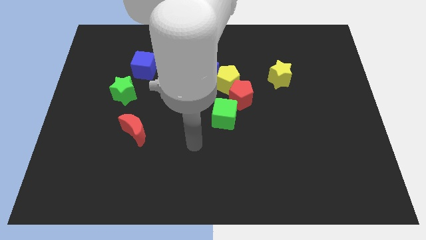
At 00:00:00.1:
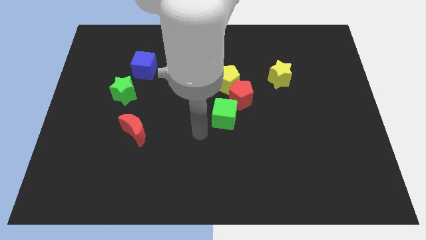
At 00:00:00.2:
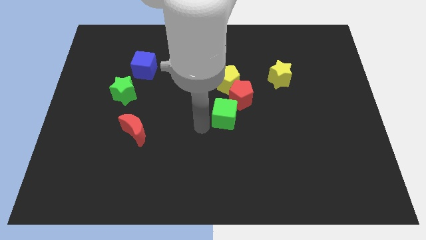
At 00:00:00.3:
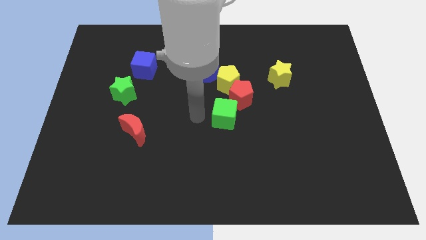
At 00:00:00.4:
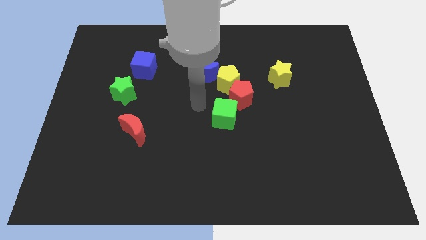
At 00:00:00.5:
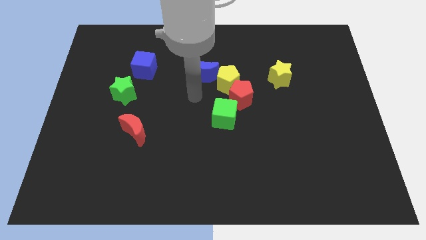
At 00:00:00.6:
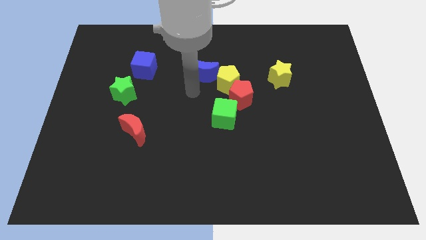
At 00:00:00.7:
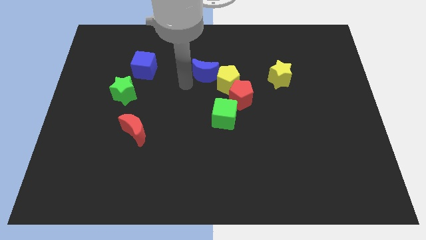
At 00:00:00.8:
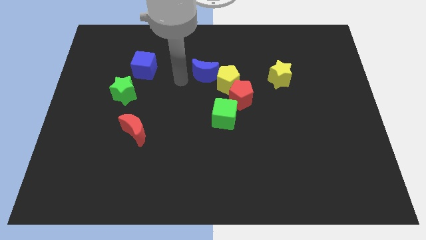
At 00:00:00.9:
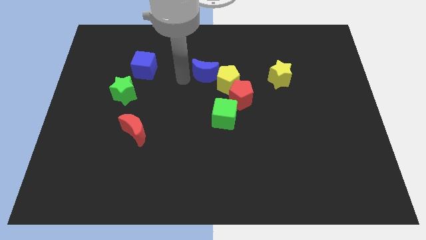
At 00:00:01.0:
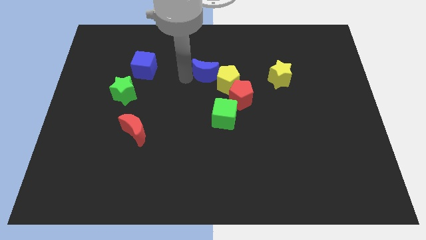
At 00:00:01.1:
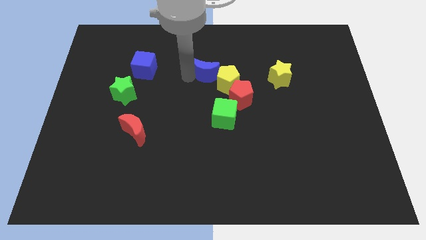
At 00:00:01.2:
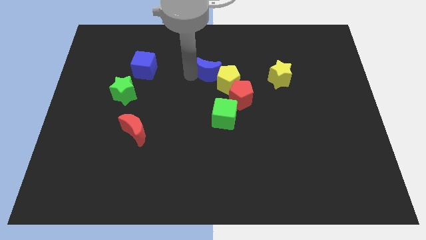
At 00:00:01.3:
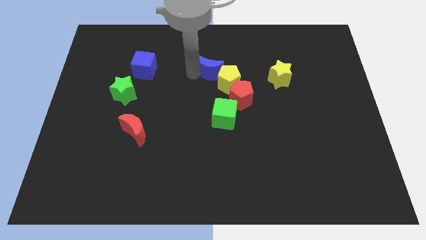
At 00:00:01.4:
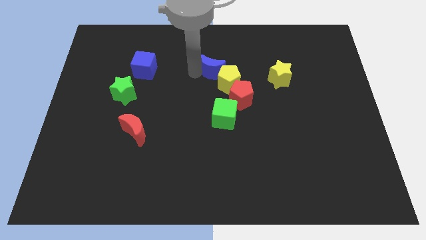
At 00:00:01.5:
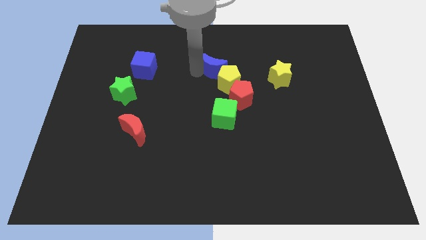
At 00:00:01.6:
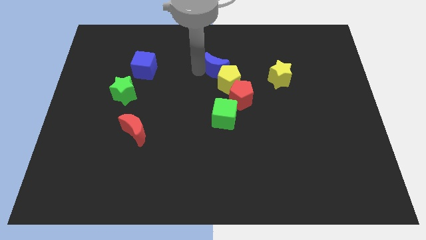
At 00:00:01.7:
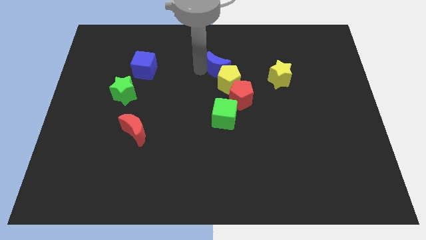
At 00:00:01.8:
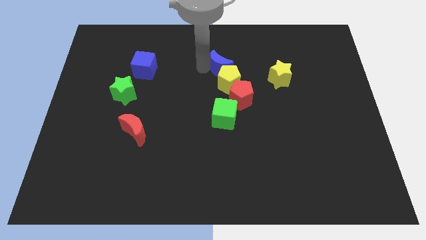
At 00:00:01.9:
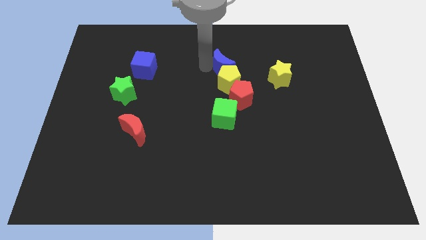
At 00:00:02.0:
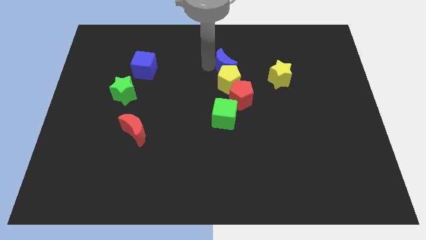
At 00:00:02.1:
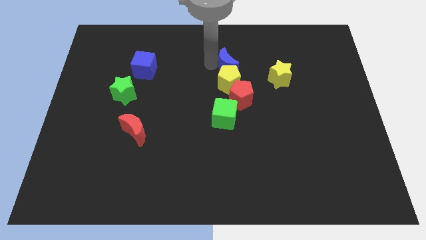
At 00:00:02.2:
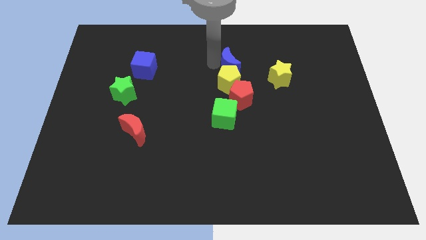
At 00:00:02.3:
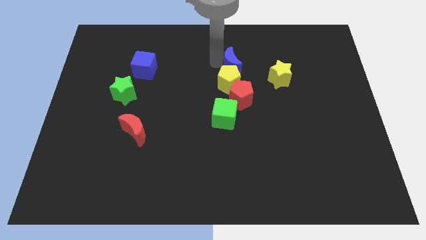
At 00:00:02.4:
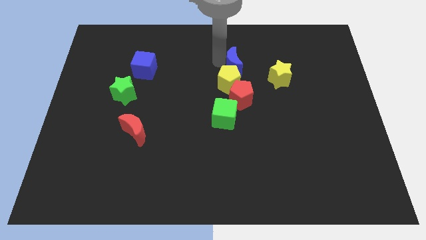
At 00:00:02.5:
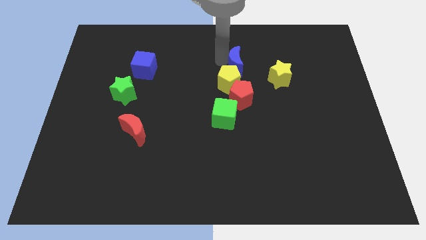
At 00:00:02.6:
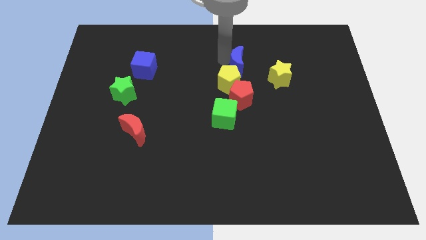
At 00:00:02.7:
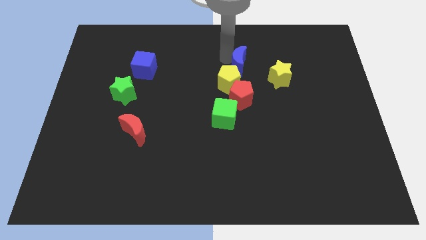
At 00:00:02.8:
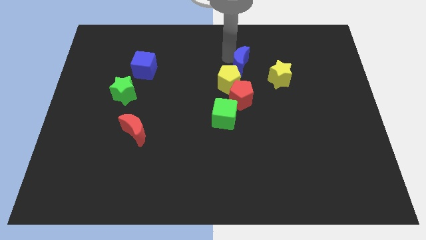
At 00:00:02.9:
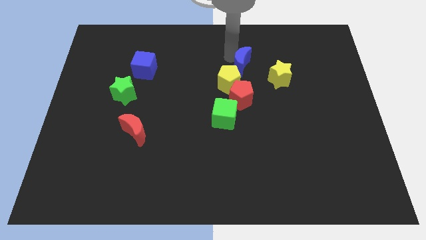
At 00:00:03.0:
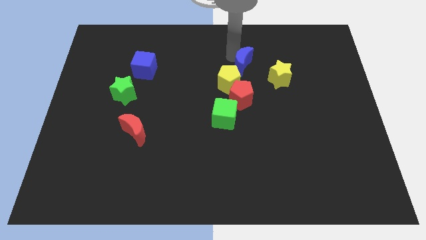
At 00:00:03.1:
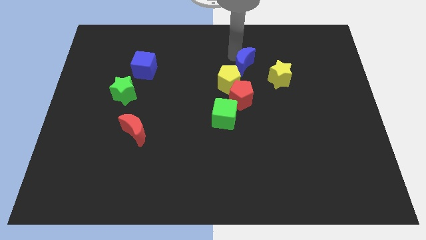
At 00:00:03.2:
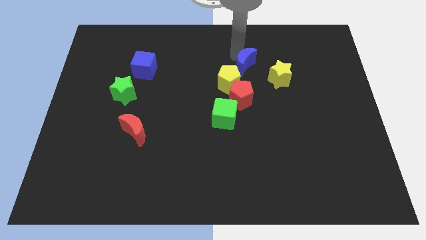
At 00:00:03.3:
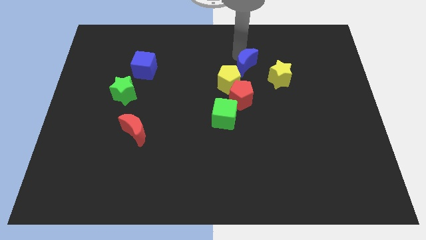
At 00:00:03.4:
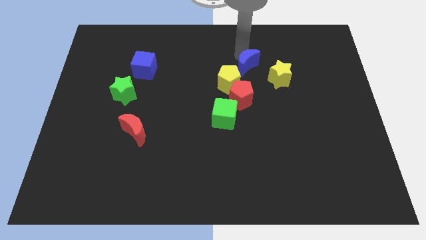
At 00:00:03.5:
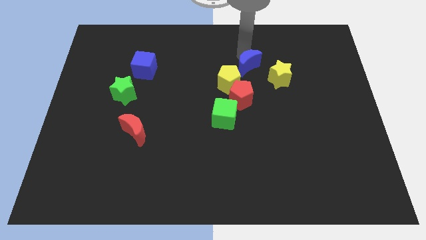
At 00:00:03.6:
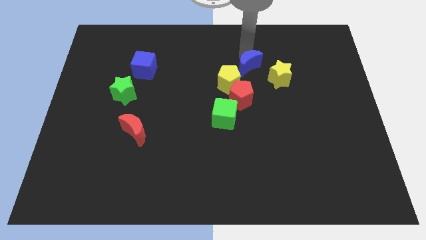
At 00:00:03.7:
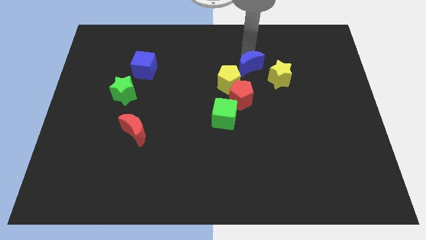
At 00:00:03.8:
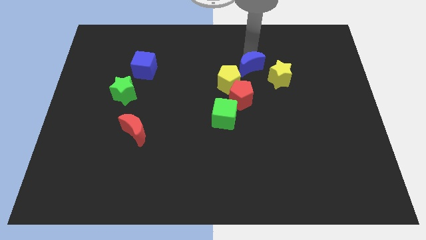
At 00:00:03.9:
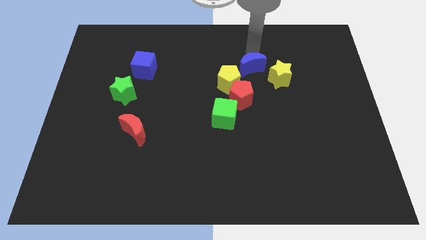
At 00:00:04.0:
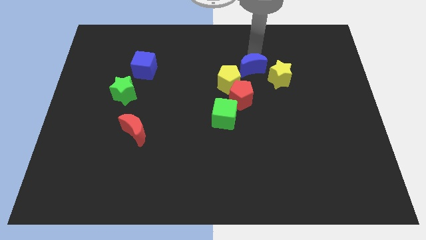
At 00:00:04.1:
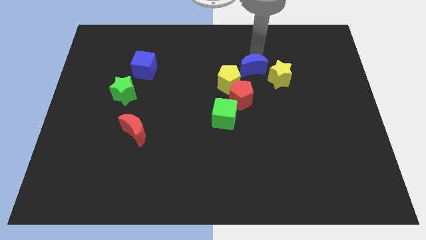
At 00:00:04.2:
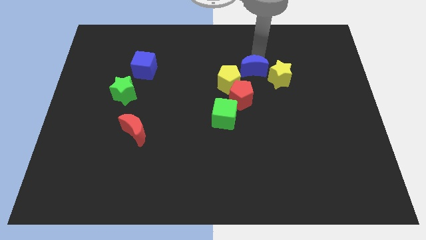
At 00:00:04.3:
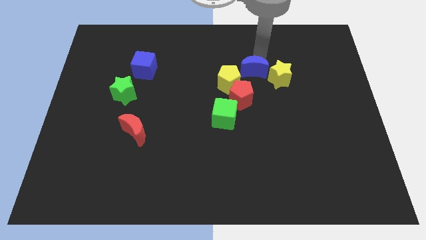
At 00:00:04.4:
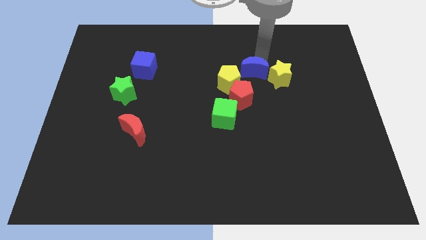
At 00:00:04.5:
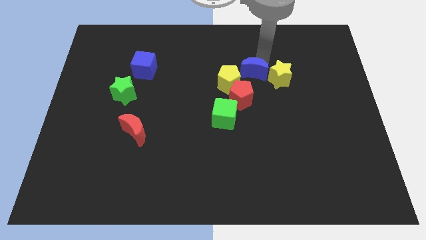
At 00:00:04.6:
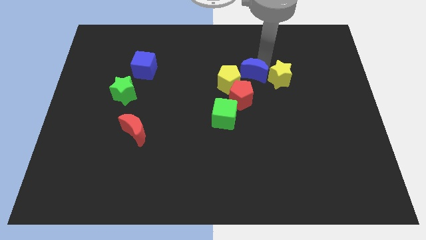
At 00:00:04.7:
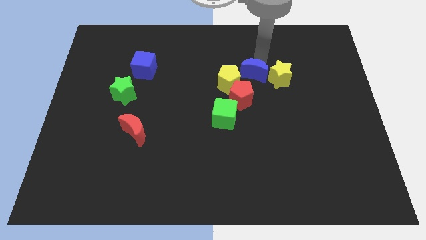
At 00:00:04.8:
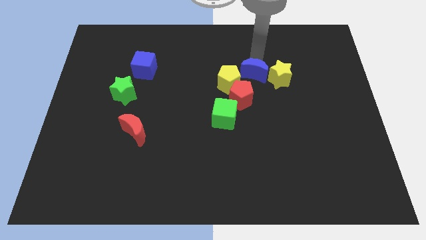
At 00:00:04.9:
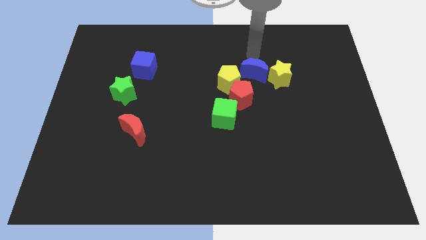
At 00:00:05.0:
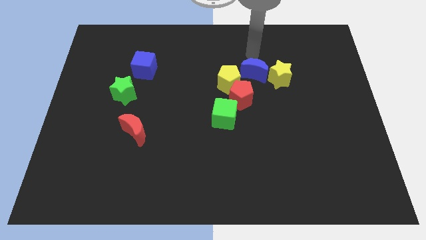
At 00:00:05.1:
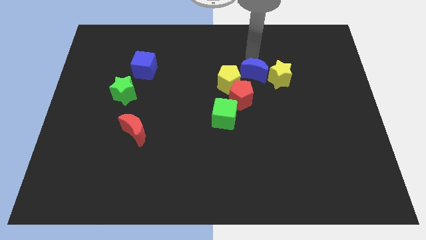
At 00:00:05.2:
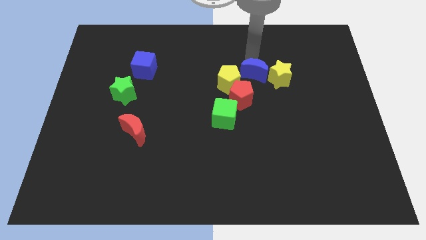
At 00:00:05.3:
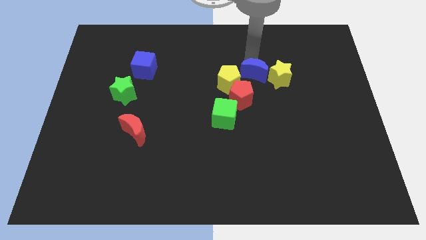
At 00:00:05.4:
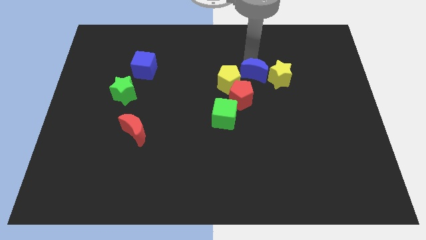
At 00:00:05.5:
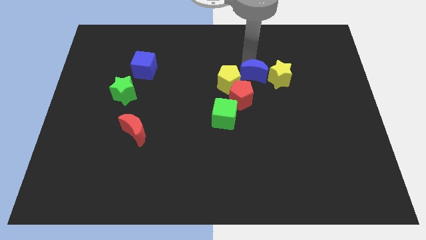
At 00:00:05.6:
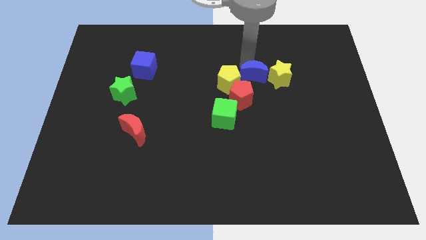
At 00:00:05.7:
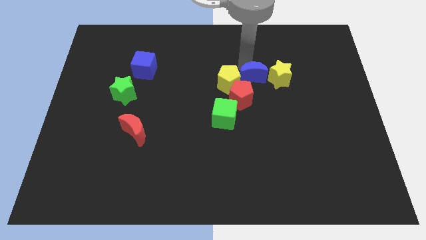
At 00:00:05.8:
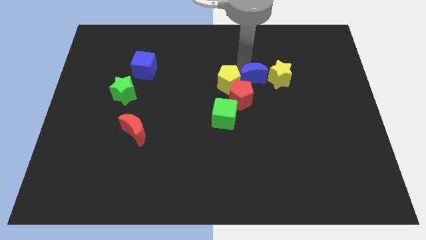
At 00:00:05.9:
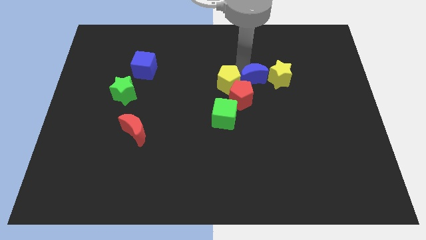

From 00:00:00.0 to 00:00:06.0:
slightly move the blue moon down and then right

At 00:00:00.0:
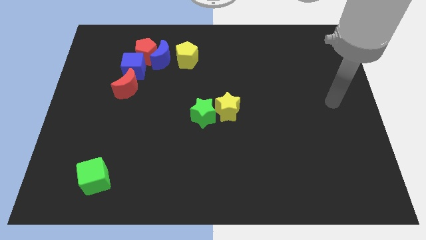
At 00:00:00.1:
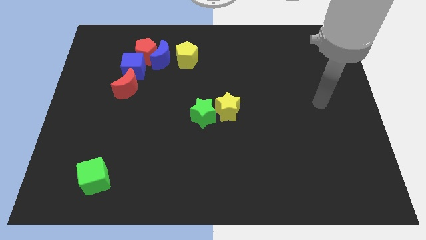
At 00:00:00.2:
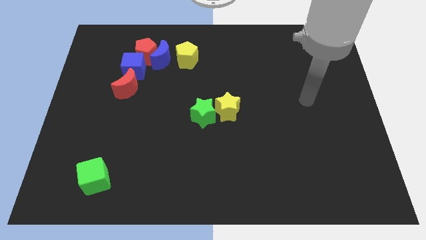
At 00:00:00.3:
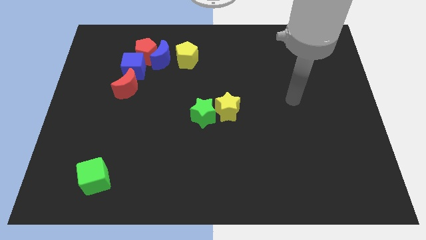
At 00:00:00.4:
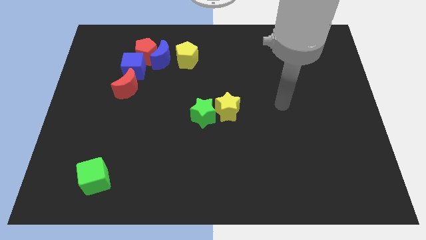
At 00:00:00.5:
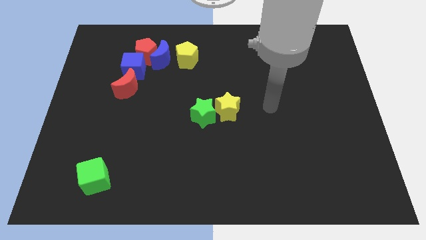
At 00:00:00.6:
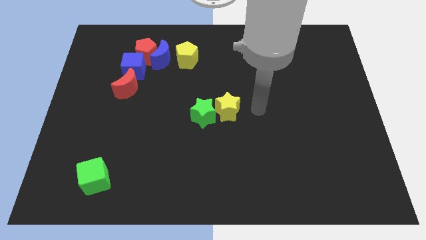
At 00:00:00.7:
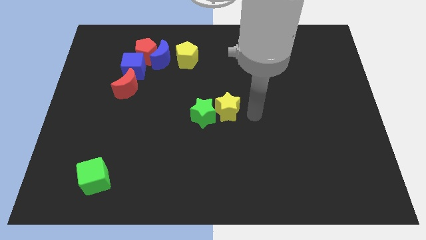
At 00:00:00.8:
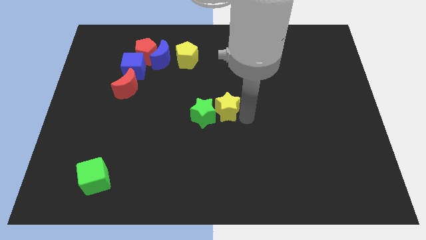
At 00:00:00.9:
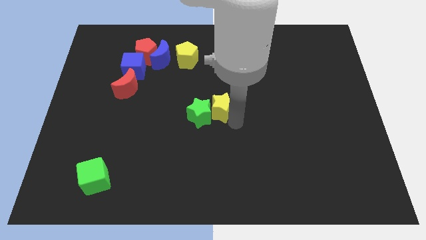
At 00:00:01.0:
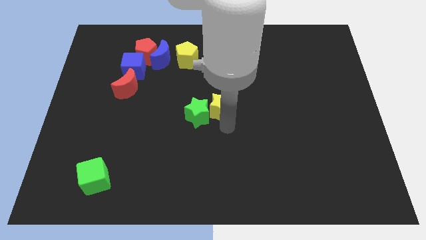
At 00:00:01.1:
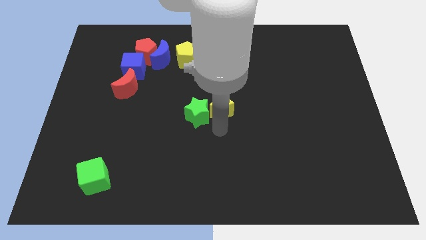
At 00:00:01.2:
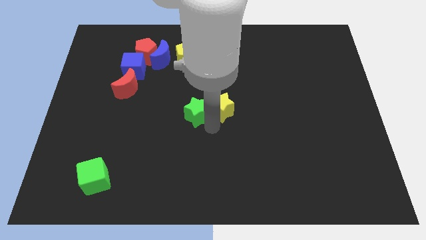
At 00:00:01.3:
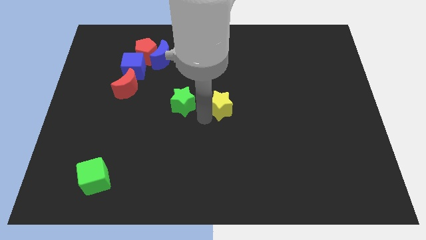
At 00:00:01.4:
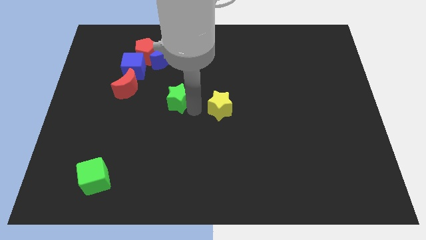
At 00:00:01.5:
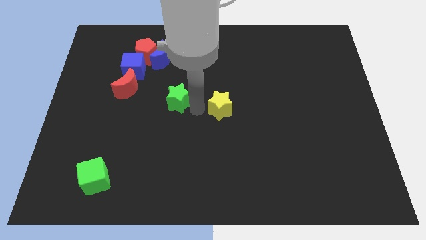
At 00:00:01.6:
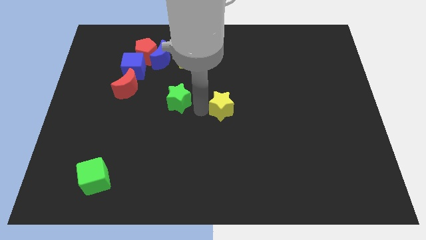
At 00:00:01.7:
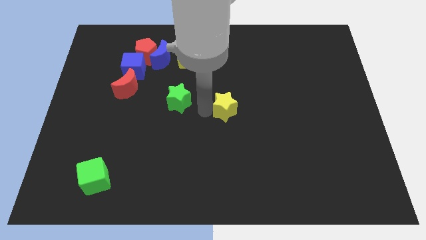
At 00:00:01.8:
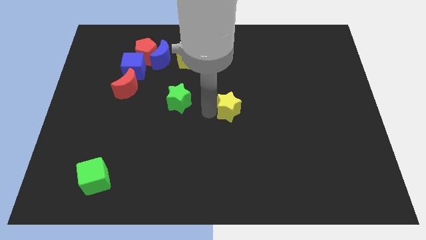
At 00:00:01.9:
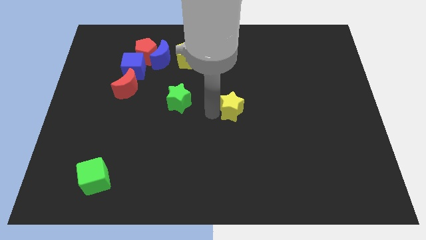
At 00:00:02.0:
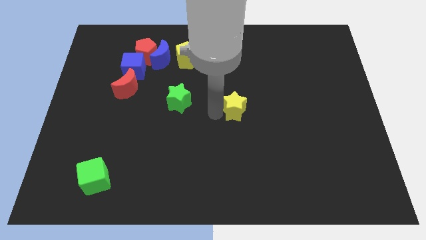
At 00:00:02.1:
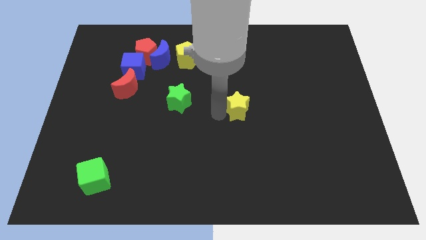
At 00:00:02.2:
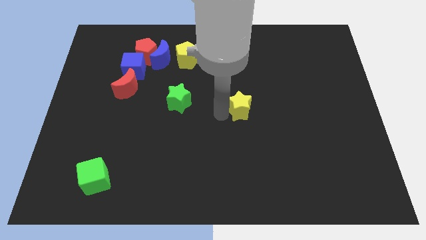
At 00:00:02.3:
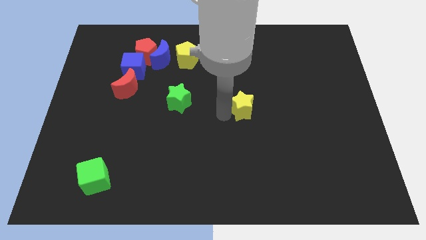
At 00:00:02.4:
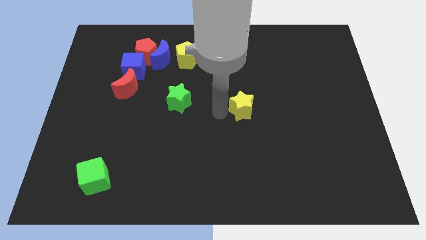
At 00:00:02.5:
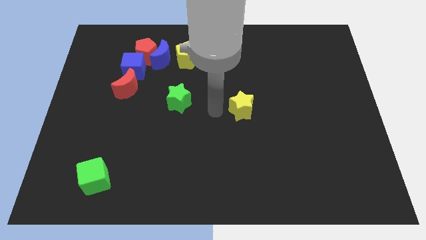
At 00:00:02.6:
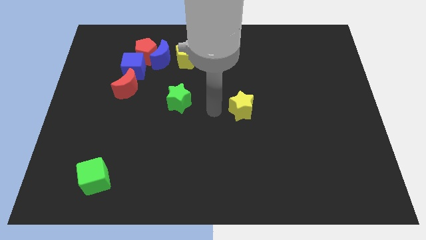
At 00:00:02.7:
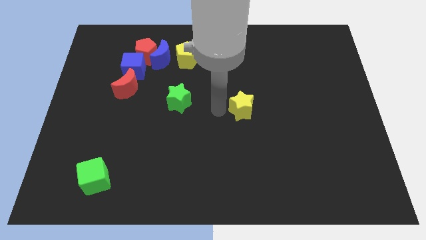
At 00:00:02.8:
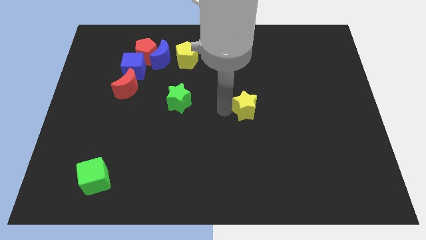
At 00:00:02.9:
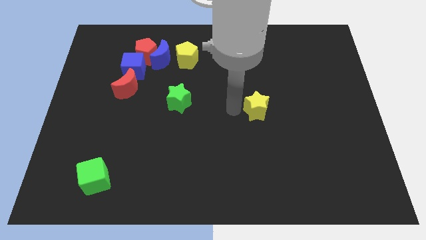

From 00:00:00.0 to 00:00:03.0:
slide the yellow star slightly to the right
